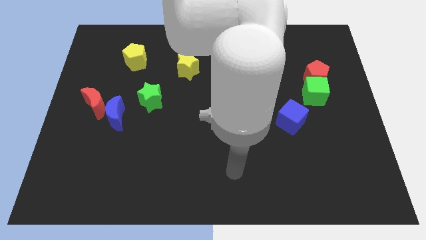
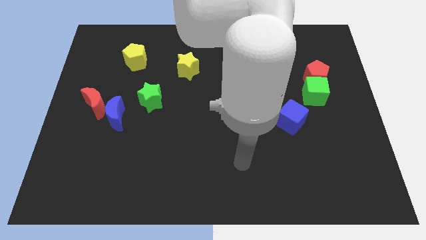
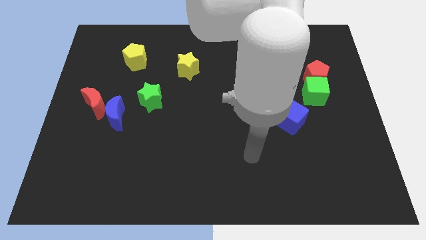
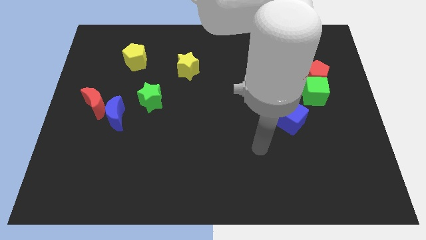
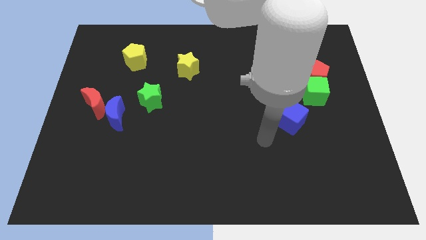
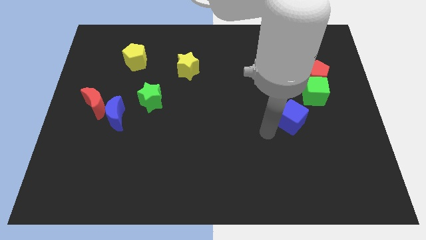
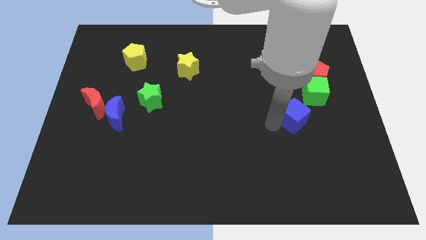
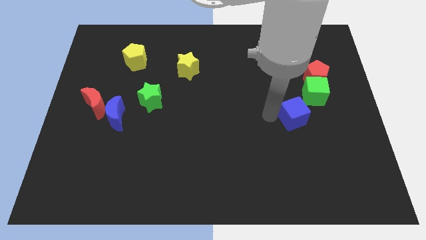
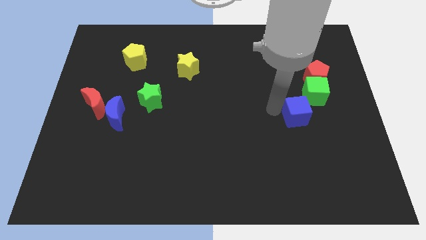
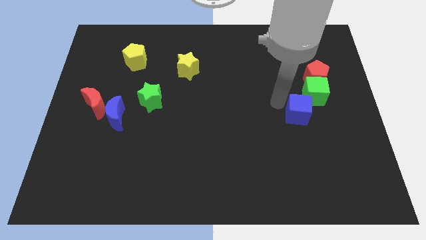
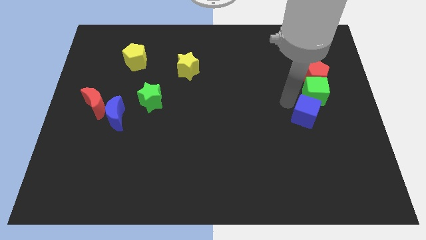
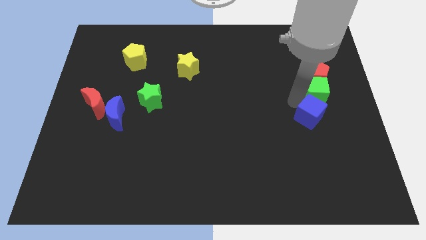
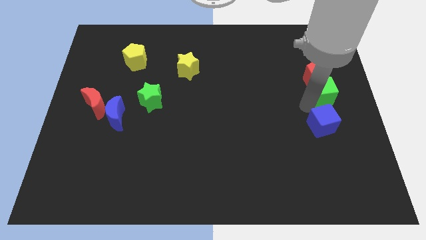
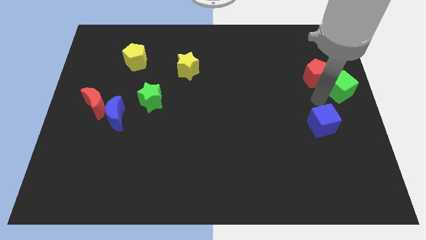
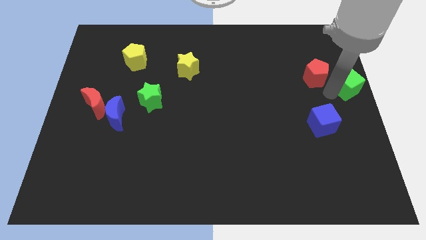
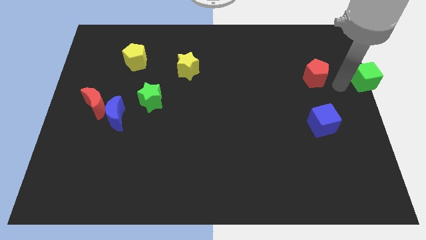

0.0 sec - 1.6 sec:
separate the red pentagon from the green cube

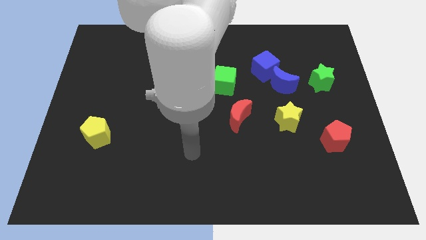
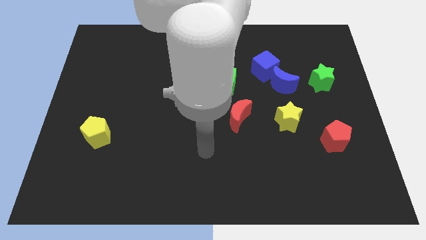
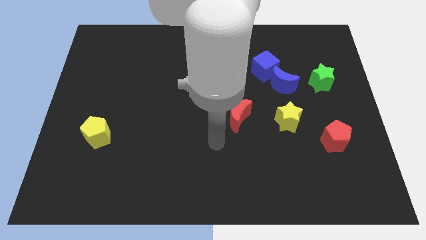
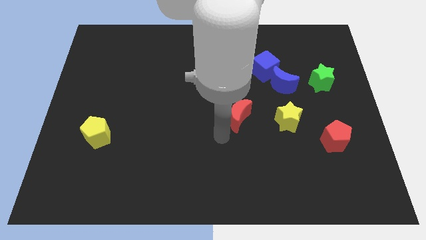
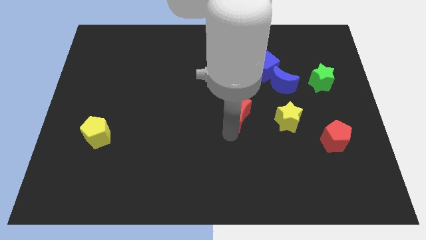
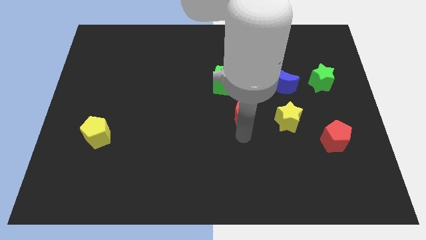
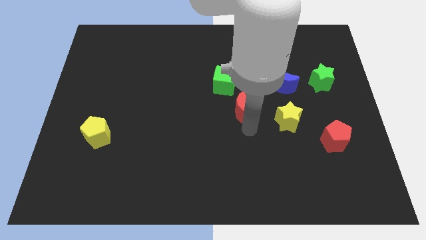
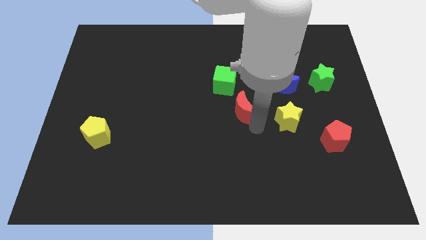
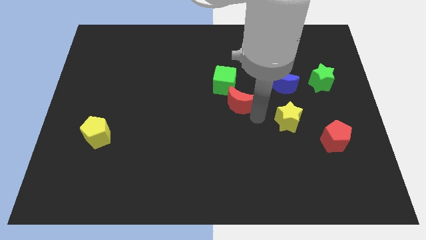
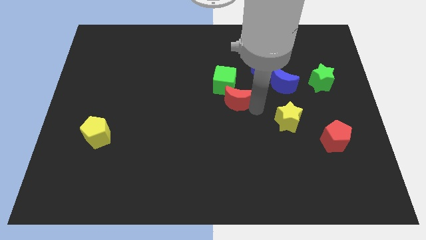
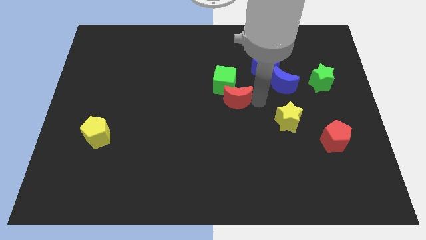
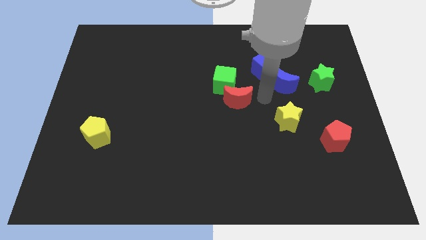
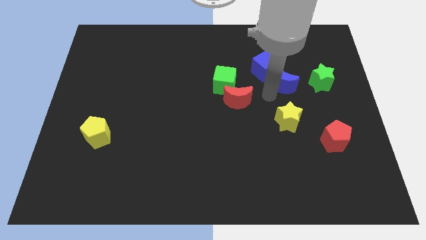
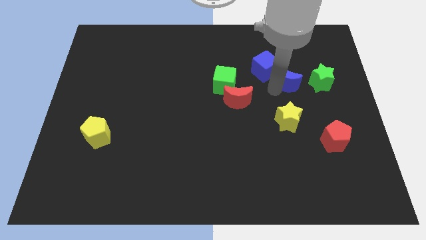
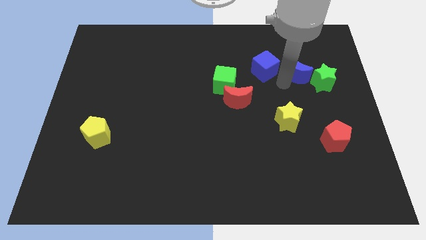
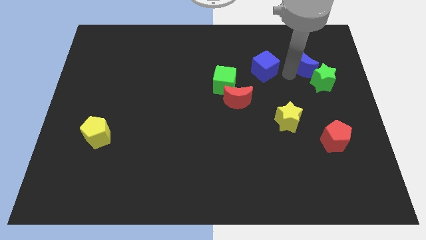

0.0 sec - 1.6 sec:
separate the blue cube from the blue moon

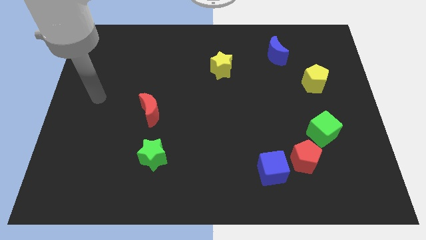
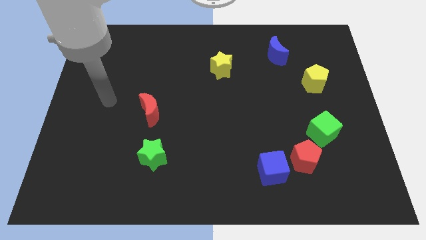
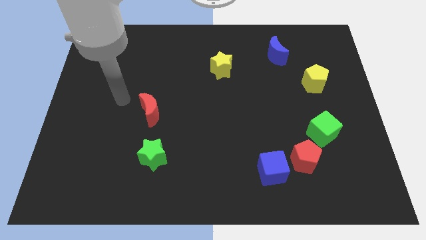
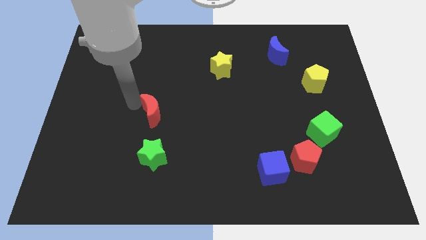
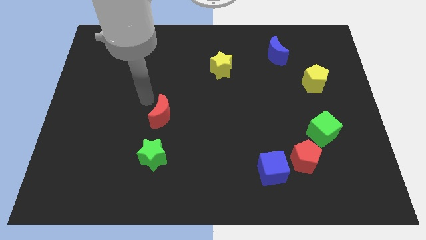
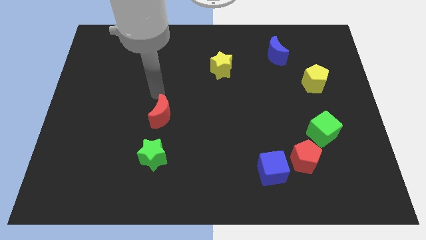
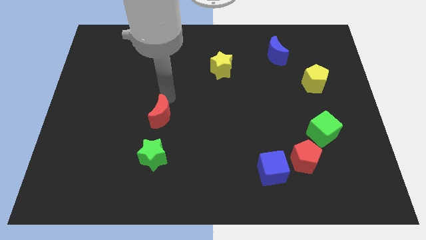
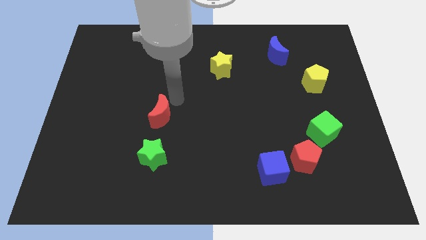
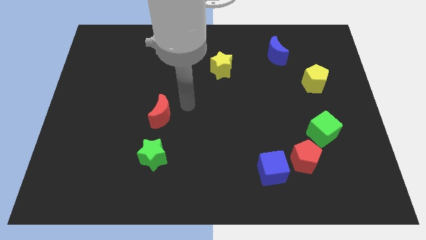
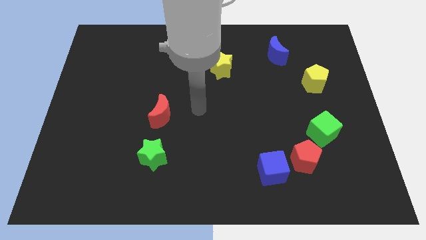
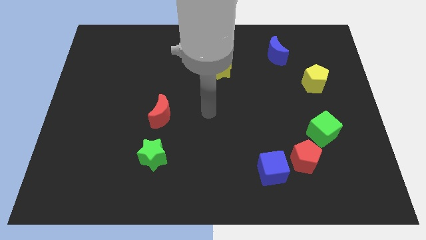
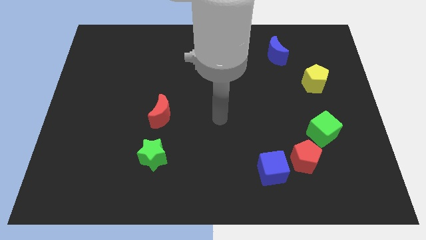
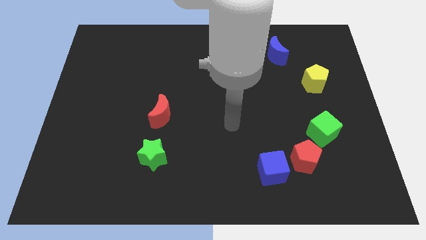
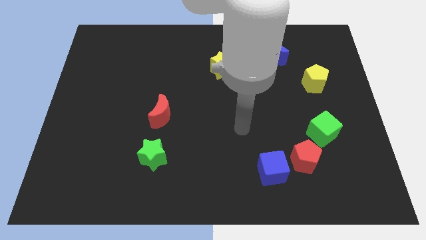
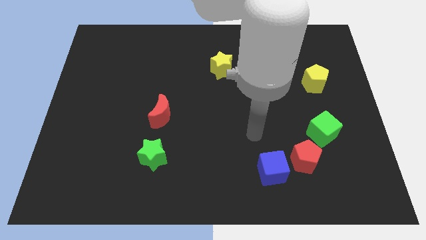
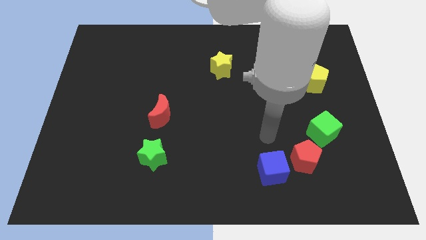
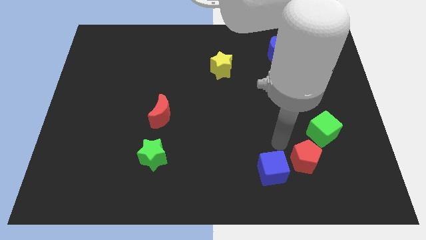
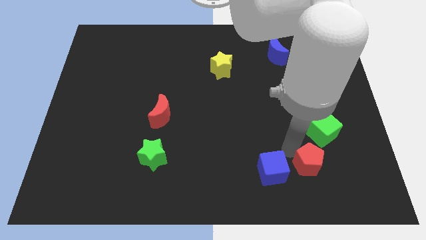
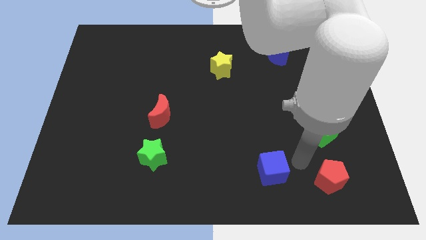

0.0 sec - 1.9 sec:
pull the blue cube apart from the red pentagon

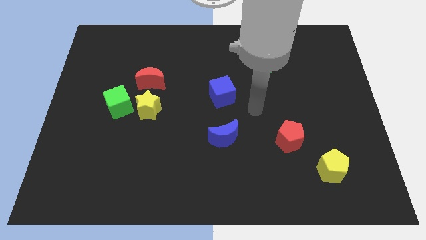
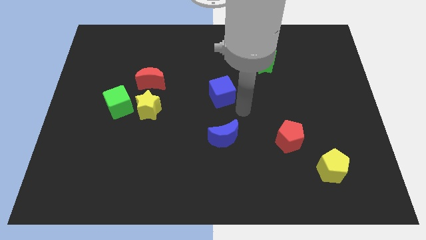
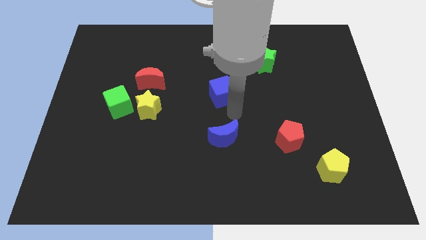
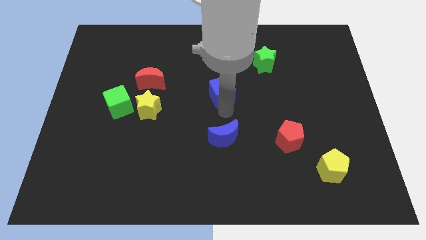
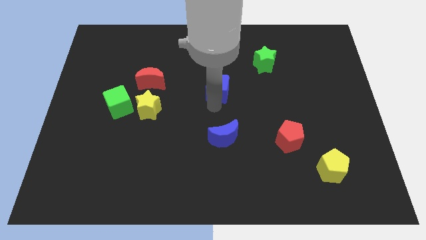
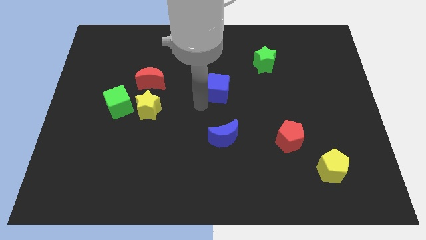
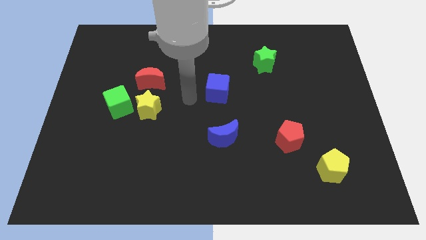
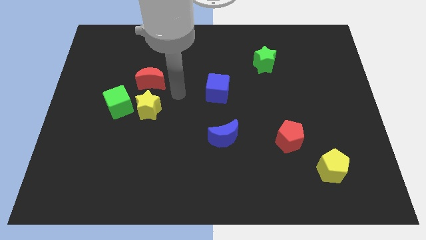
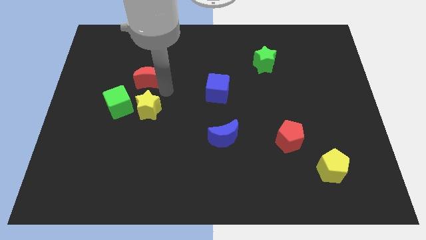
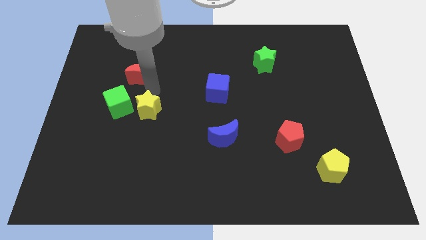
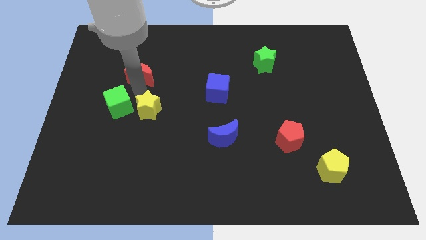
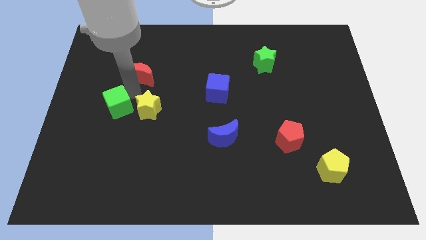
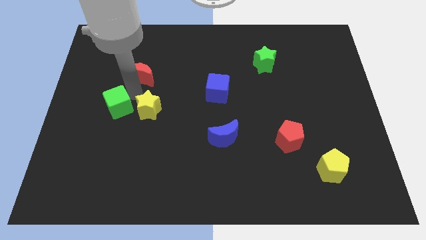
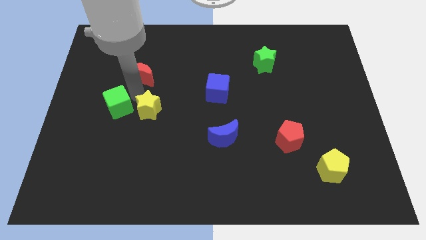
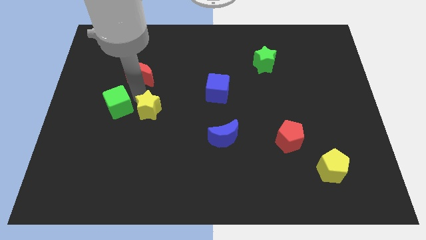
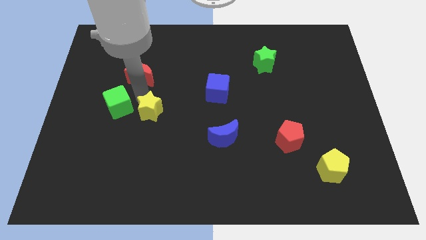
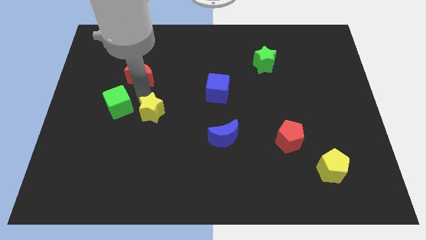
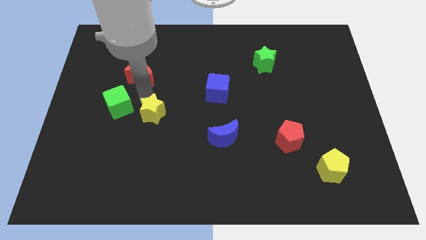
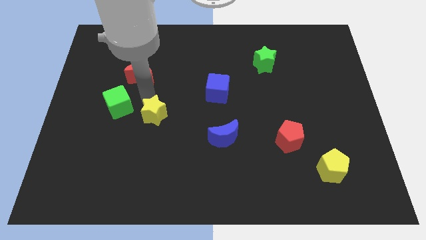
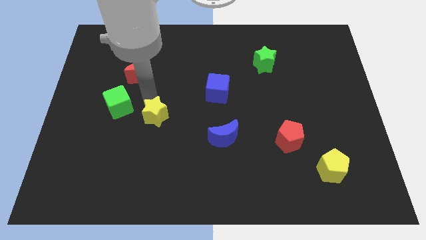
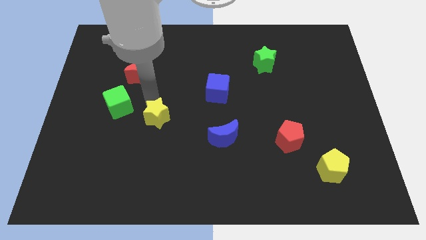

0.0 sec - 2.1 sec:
pull the yellow star apart from the green cube and red moon

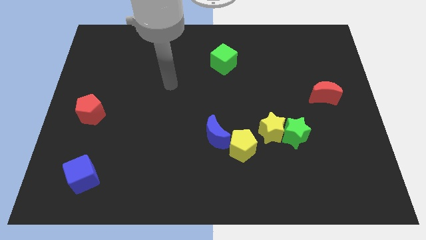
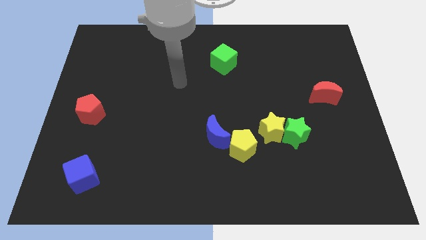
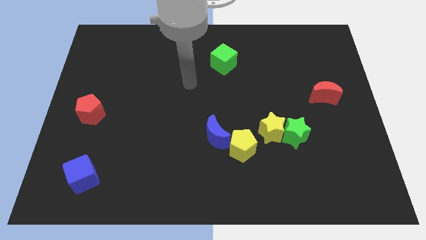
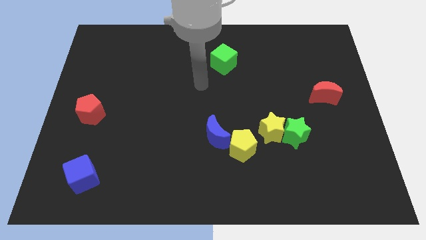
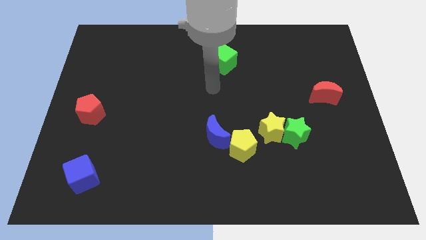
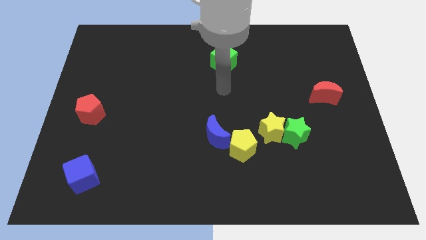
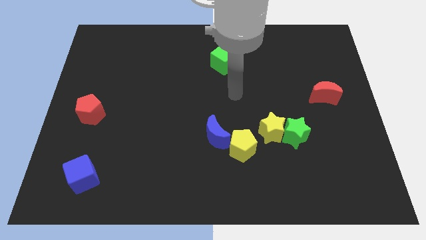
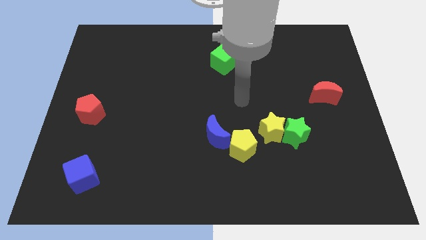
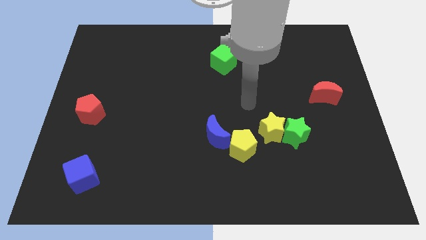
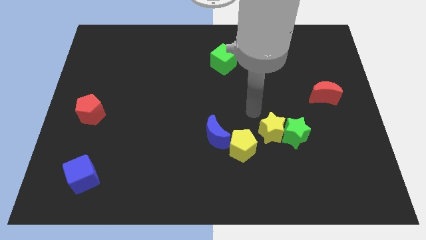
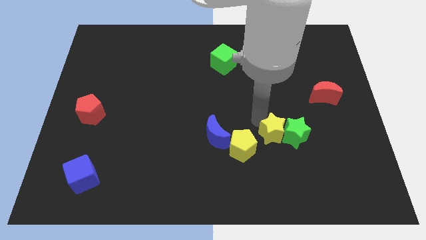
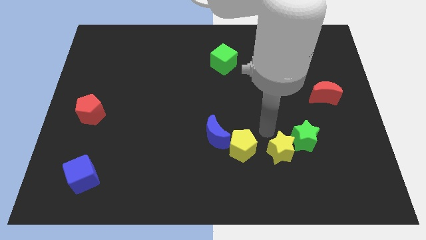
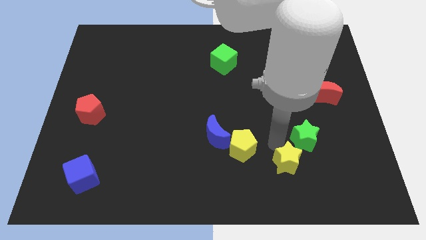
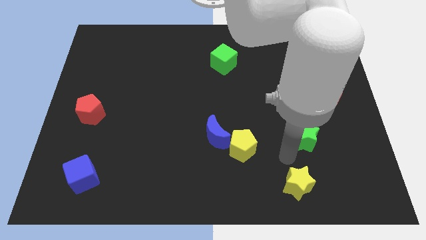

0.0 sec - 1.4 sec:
pull the green star apart from the yellow star

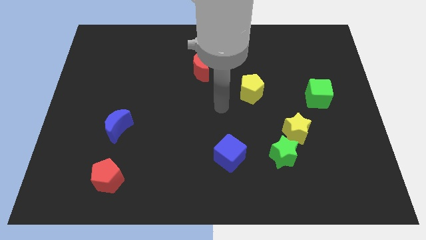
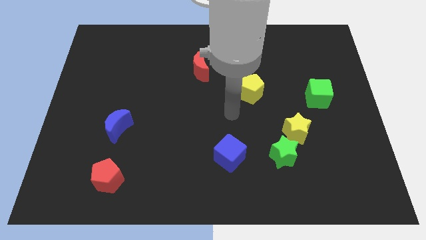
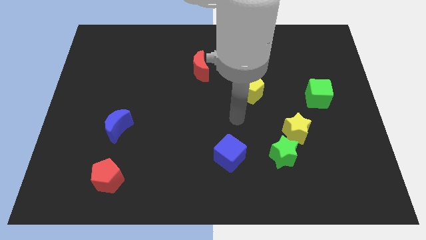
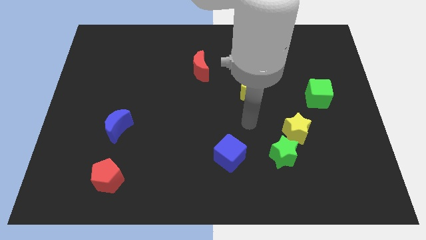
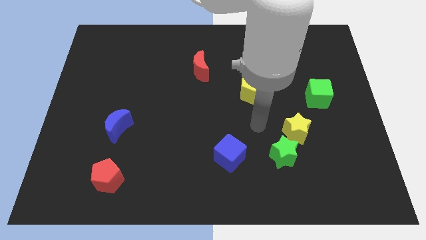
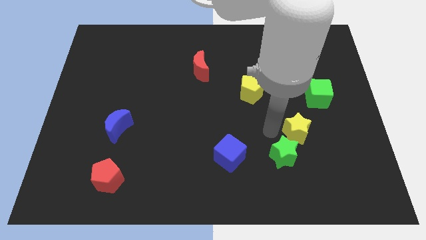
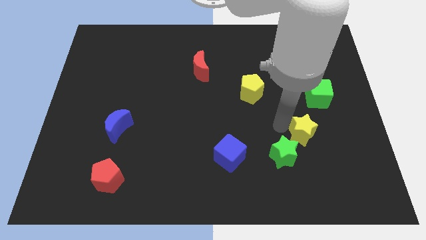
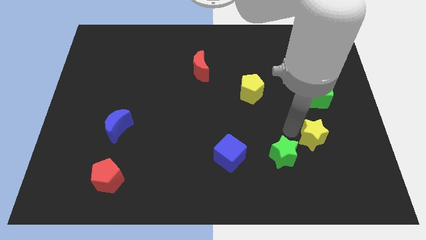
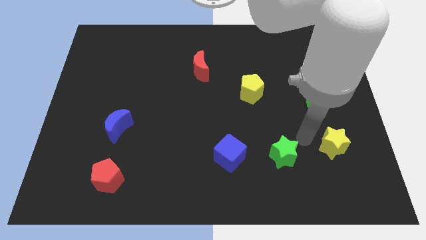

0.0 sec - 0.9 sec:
separate the green star from the yellow star
